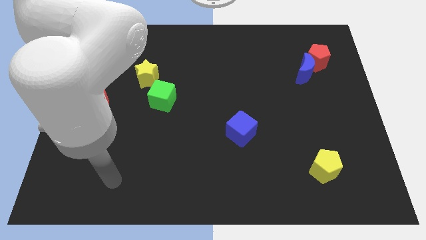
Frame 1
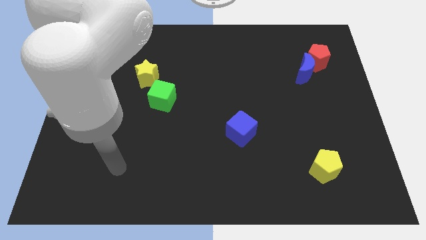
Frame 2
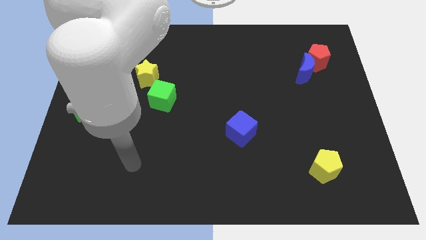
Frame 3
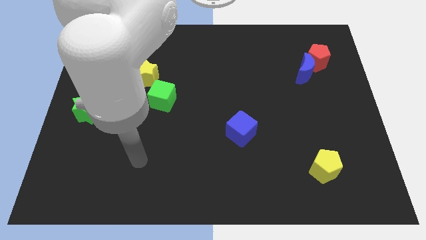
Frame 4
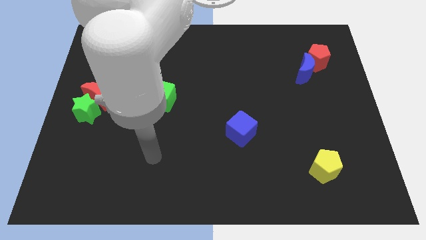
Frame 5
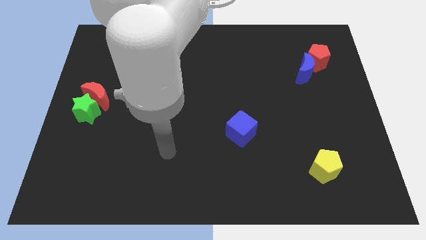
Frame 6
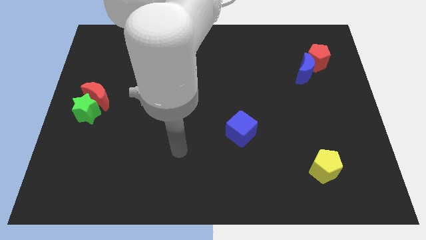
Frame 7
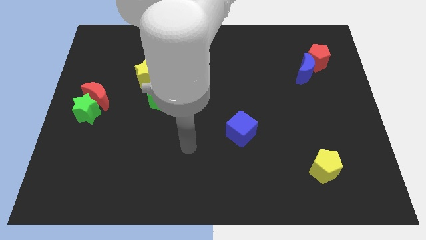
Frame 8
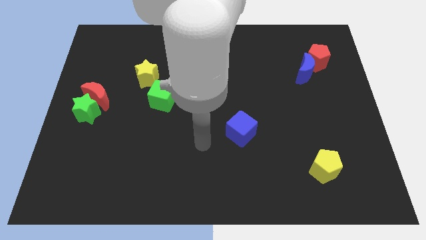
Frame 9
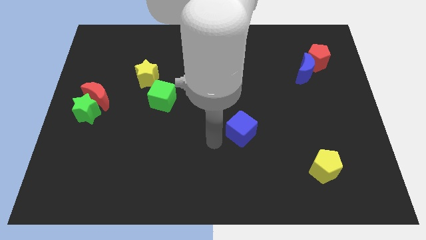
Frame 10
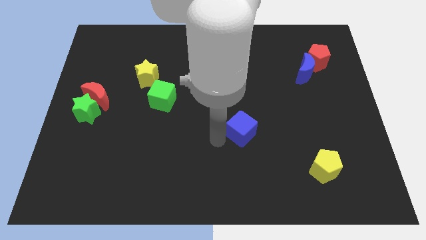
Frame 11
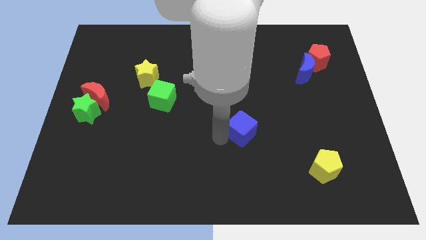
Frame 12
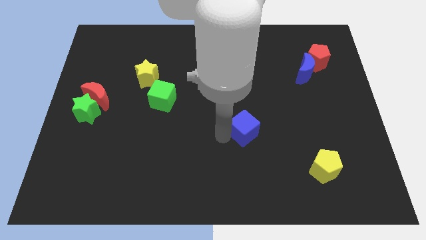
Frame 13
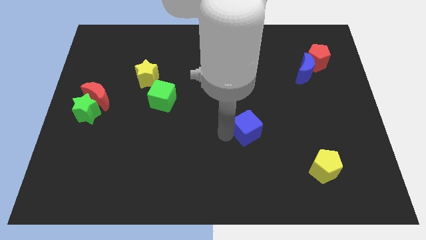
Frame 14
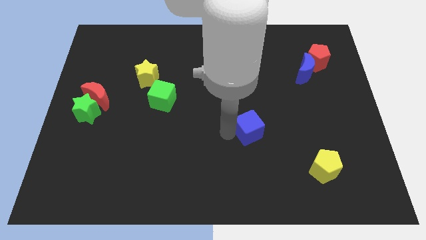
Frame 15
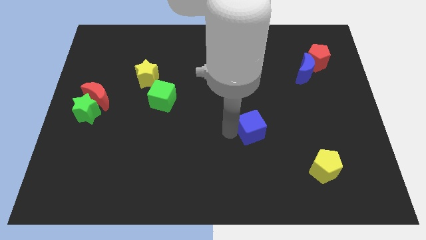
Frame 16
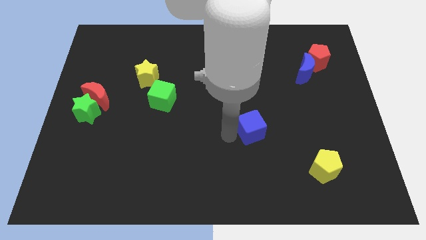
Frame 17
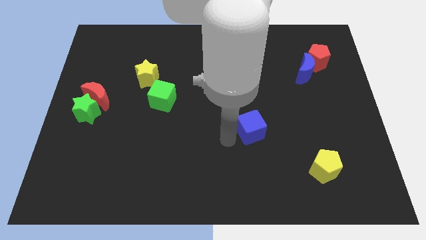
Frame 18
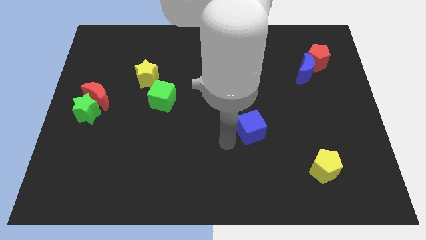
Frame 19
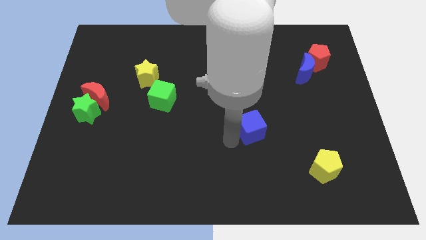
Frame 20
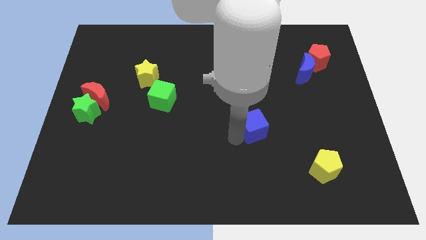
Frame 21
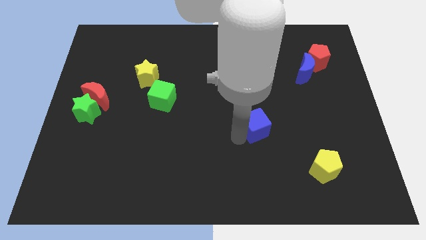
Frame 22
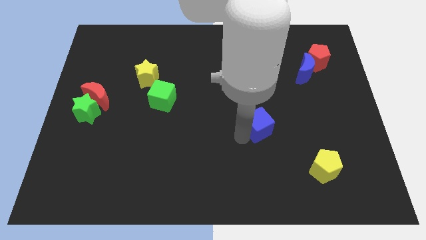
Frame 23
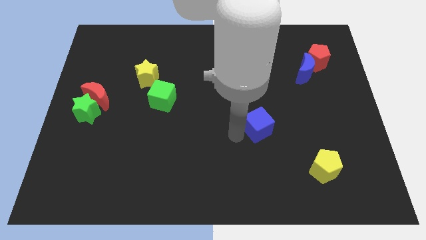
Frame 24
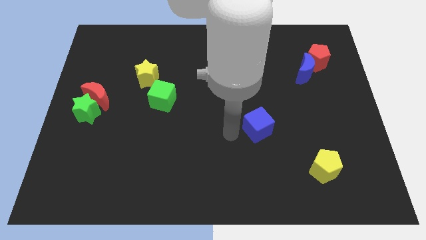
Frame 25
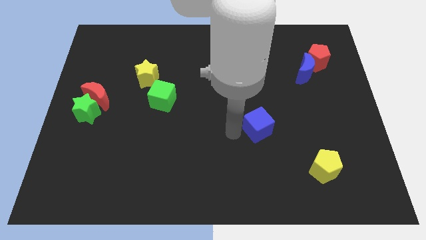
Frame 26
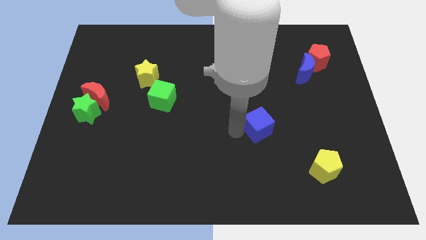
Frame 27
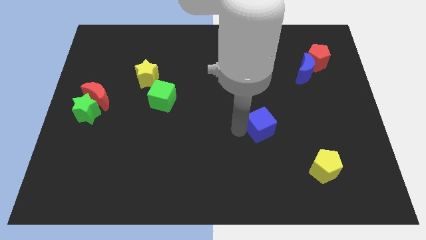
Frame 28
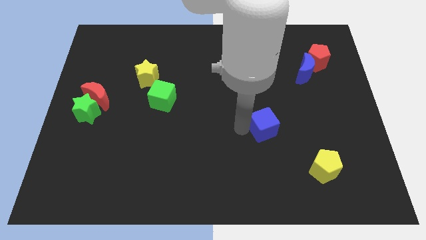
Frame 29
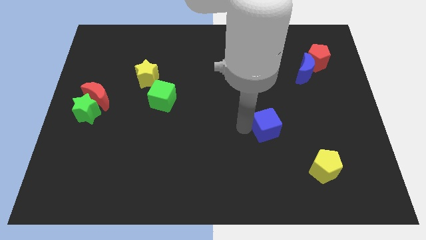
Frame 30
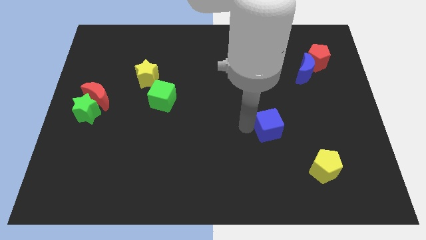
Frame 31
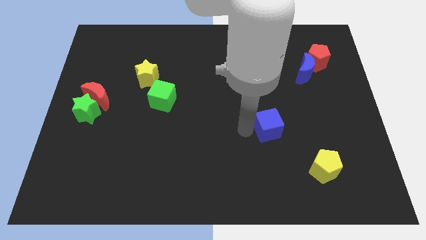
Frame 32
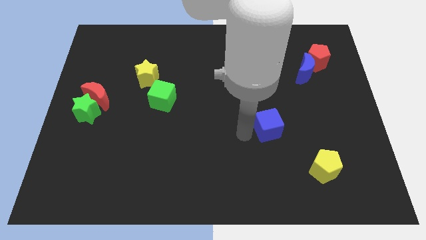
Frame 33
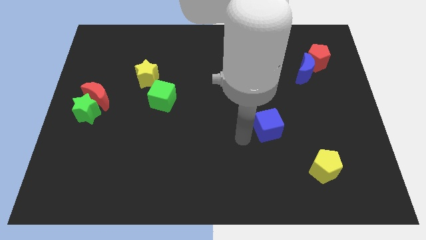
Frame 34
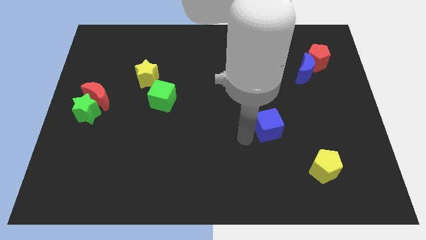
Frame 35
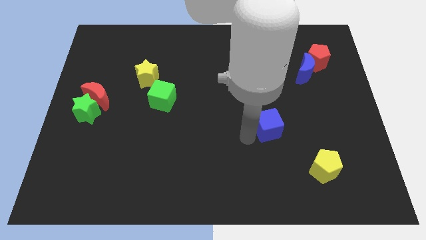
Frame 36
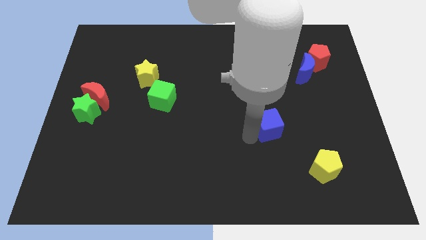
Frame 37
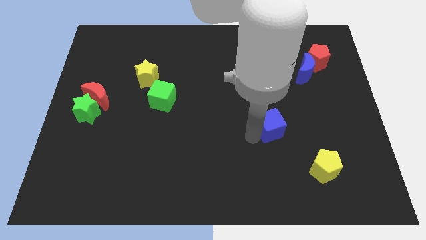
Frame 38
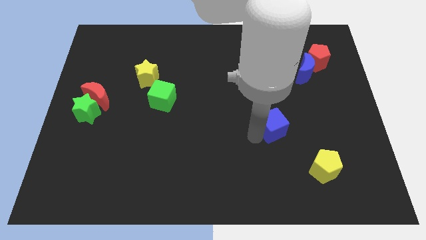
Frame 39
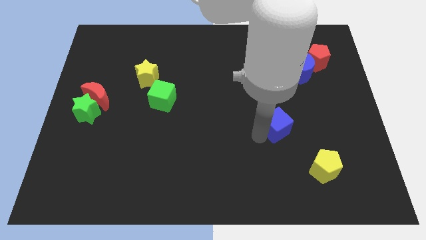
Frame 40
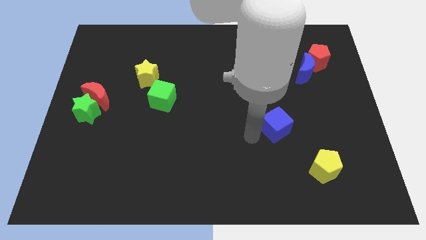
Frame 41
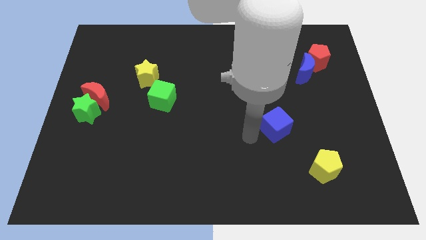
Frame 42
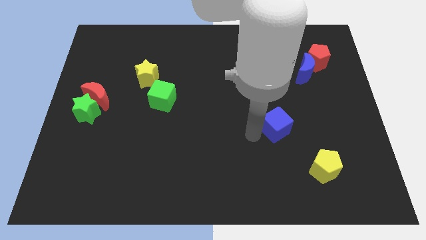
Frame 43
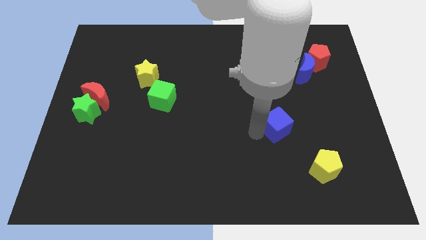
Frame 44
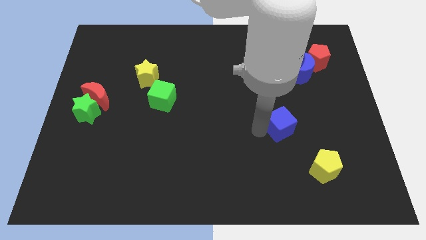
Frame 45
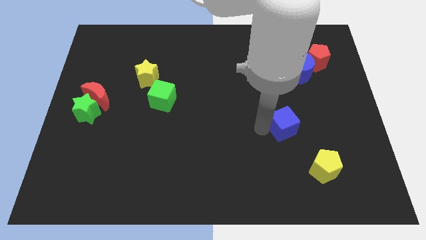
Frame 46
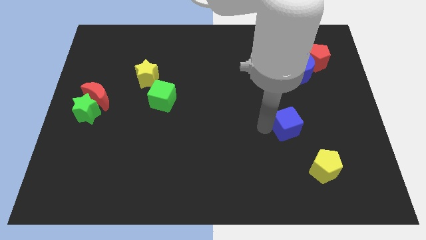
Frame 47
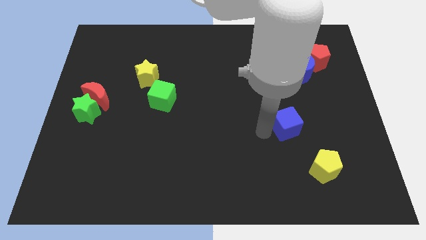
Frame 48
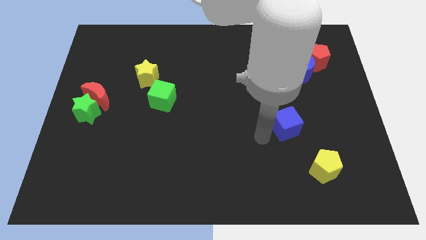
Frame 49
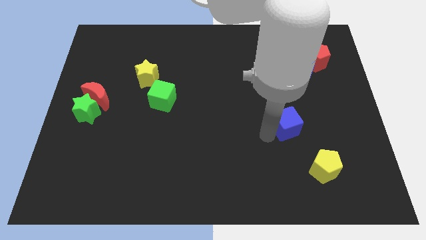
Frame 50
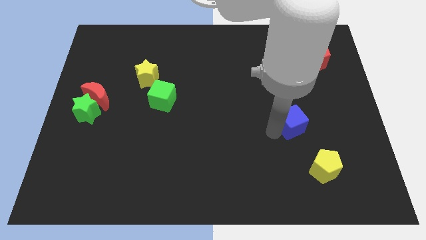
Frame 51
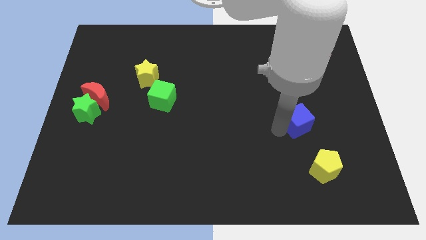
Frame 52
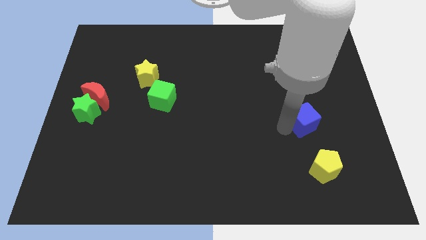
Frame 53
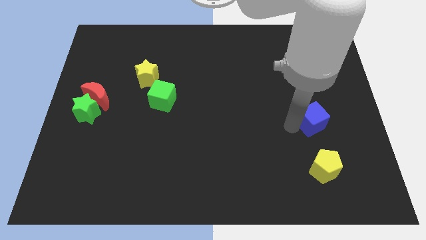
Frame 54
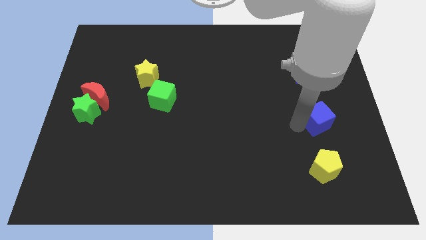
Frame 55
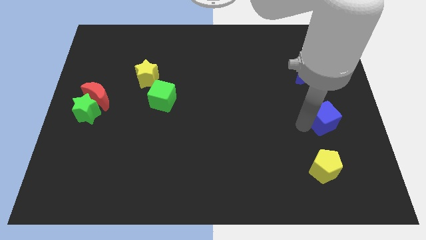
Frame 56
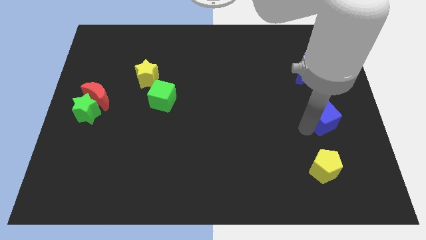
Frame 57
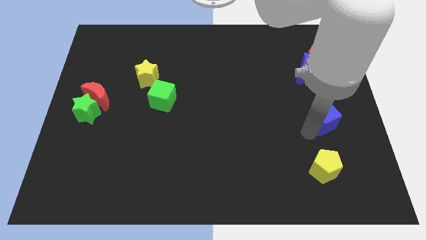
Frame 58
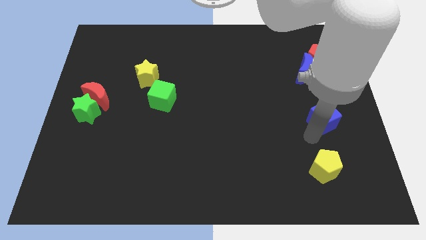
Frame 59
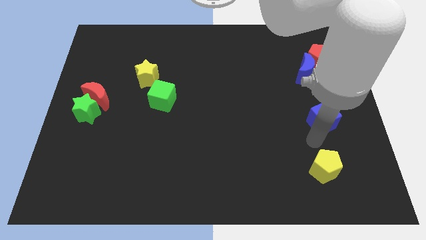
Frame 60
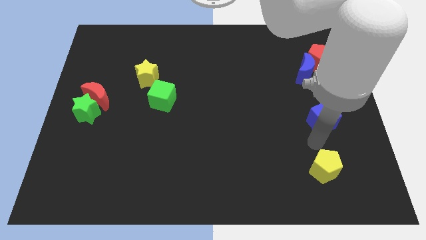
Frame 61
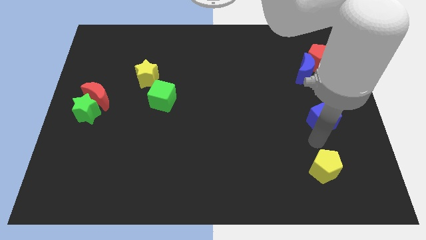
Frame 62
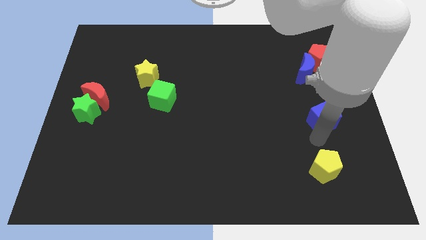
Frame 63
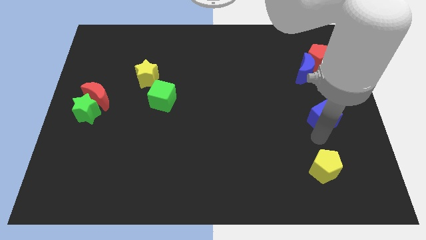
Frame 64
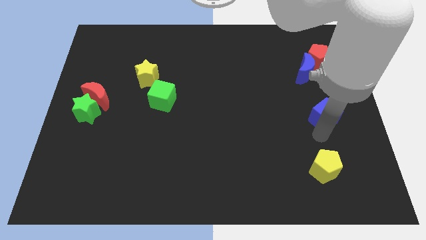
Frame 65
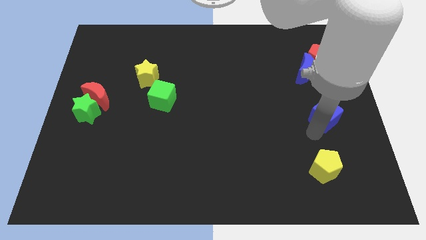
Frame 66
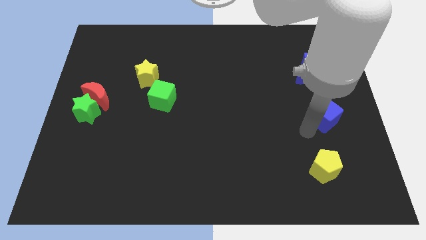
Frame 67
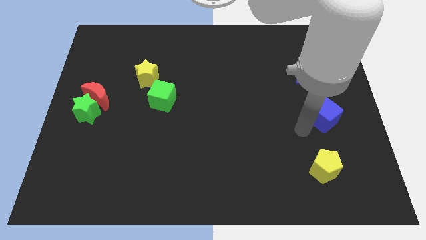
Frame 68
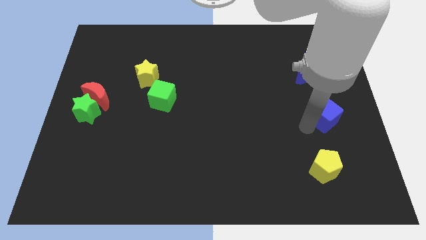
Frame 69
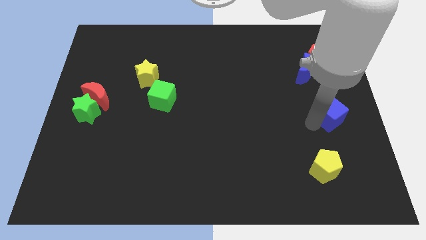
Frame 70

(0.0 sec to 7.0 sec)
slide the blue cube to the right side of the board
